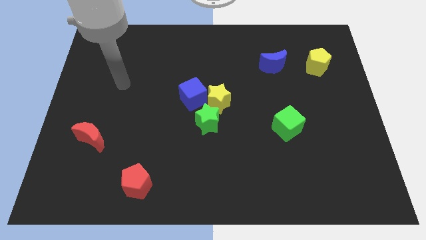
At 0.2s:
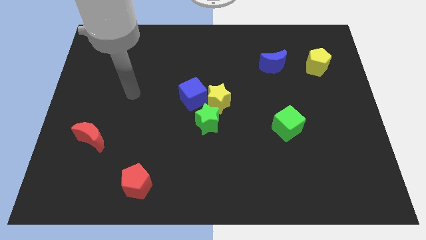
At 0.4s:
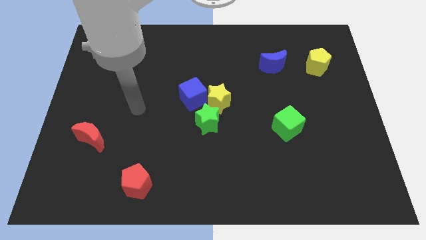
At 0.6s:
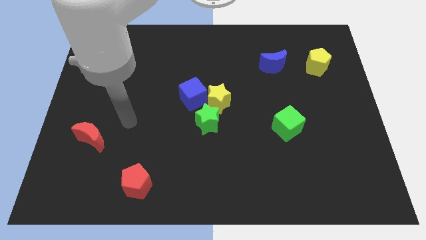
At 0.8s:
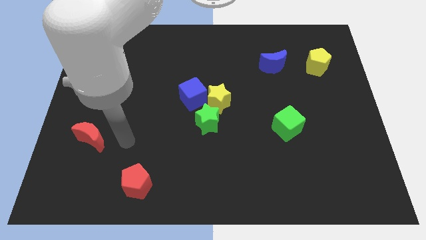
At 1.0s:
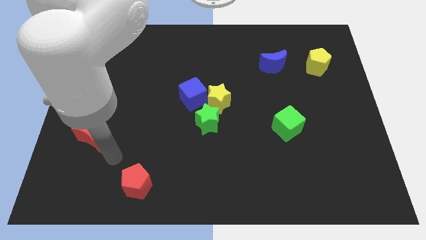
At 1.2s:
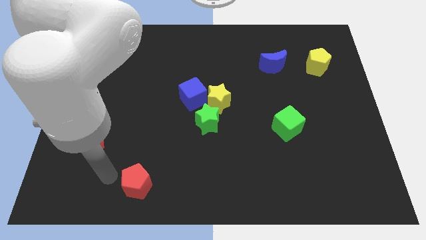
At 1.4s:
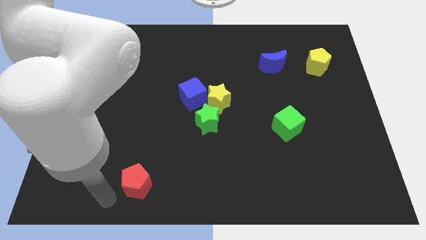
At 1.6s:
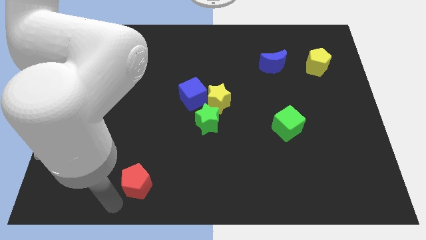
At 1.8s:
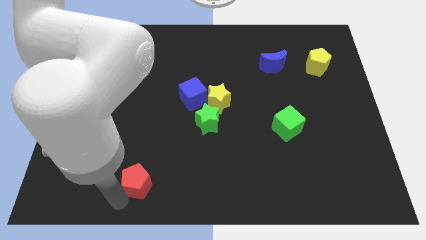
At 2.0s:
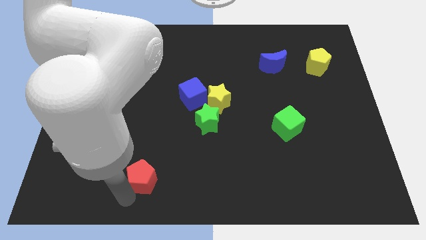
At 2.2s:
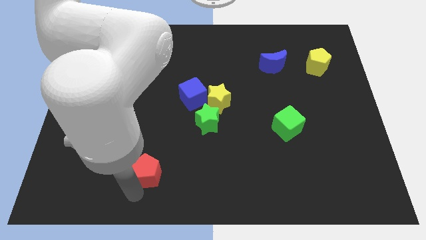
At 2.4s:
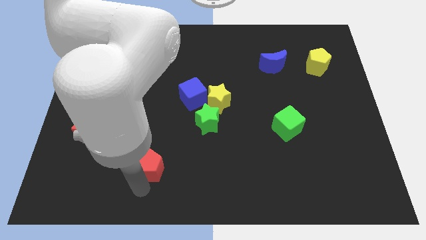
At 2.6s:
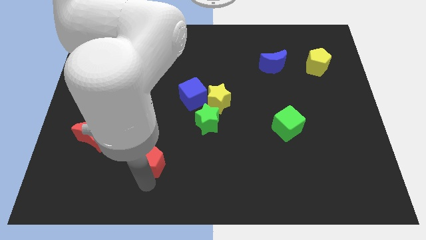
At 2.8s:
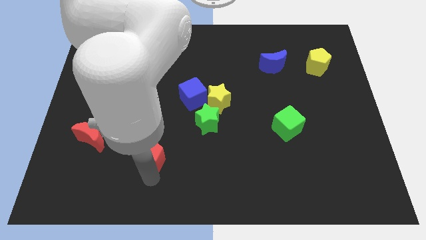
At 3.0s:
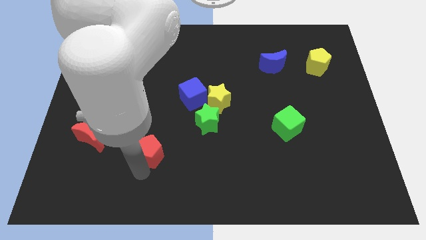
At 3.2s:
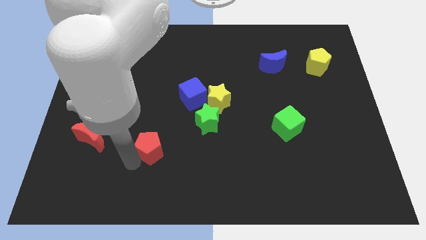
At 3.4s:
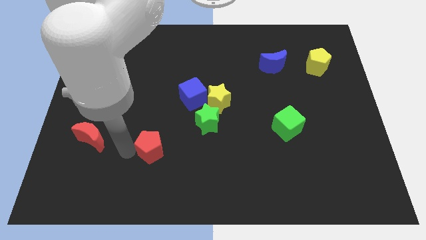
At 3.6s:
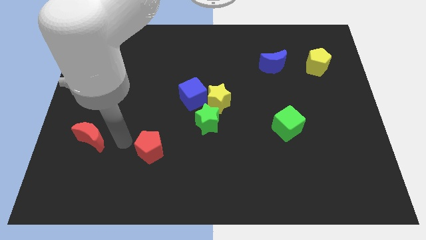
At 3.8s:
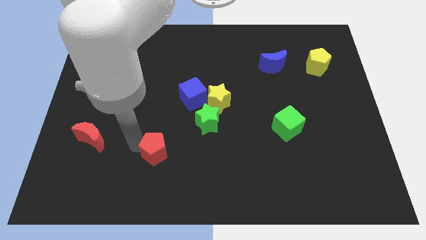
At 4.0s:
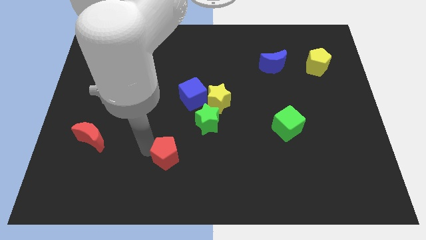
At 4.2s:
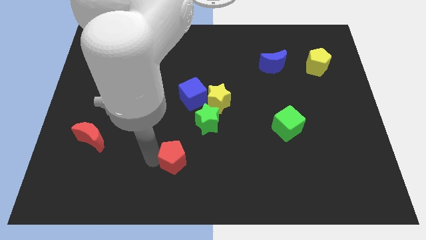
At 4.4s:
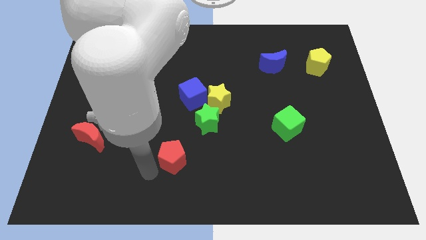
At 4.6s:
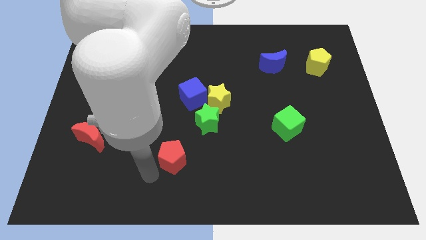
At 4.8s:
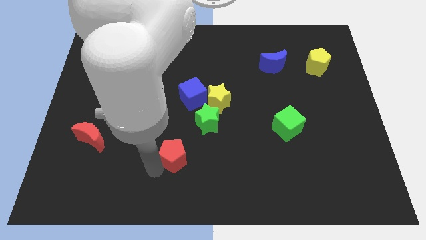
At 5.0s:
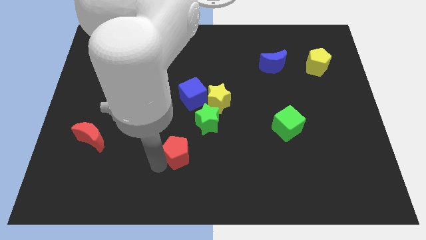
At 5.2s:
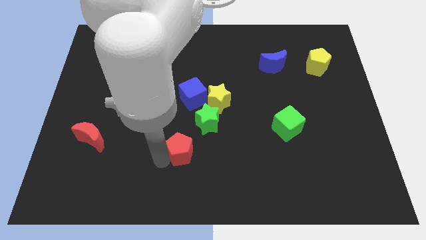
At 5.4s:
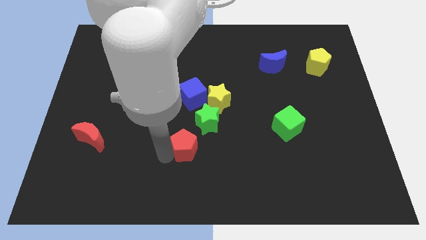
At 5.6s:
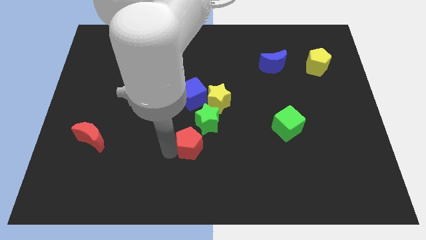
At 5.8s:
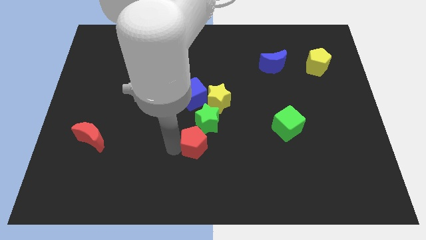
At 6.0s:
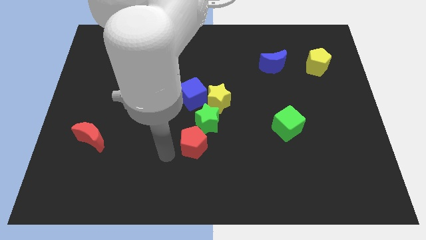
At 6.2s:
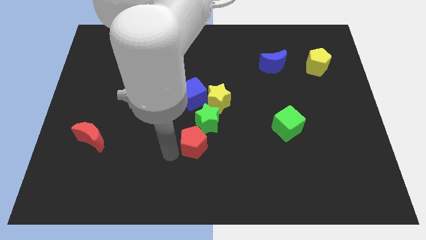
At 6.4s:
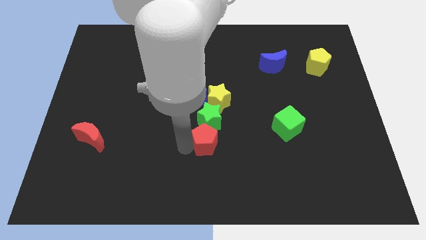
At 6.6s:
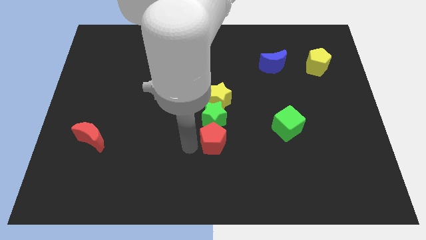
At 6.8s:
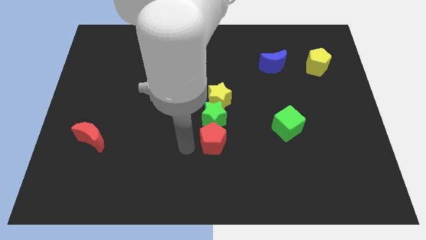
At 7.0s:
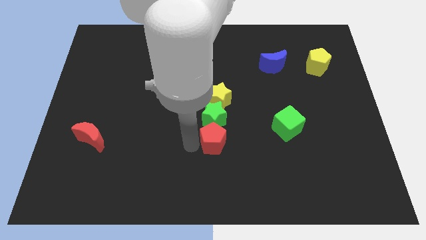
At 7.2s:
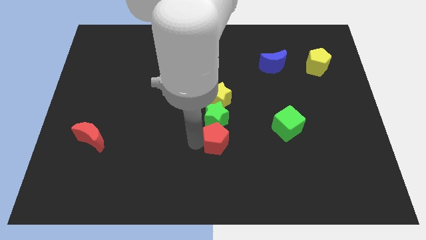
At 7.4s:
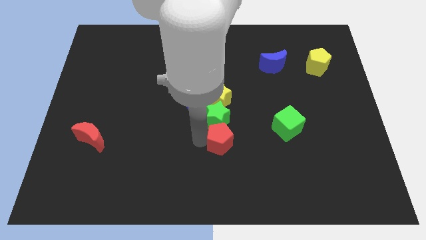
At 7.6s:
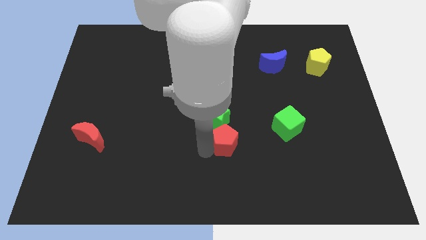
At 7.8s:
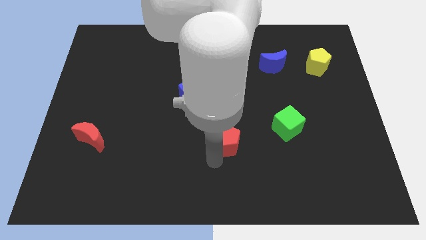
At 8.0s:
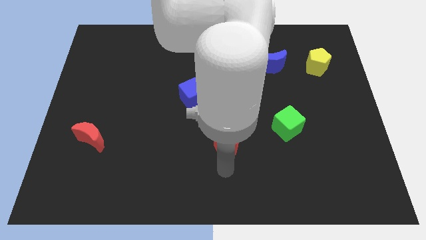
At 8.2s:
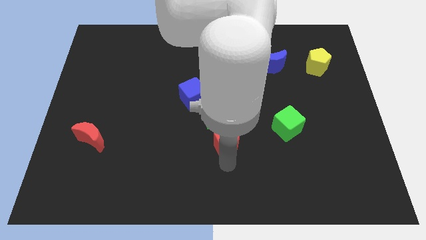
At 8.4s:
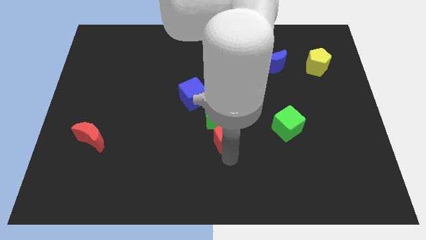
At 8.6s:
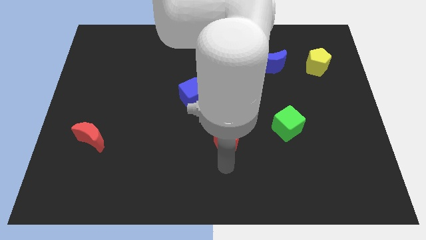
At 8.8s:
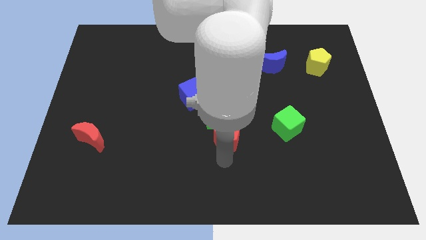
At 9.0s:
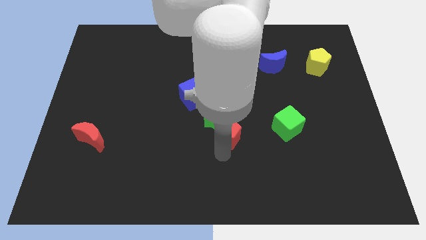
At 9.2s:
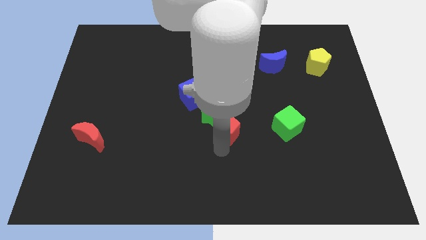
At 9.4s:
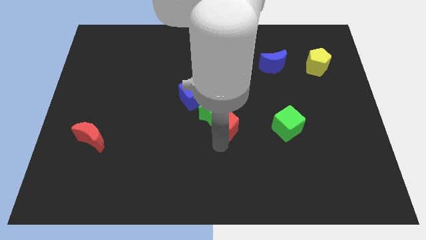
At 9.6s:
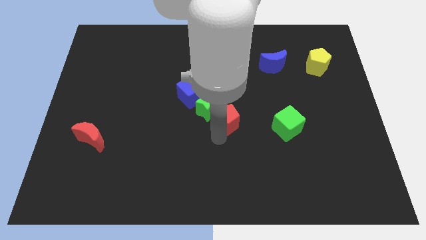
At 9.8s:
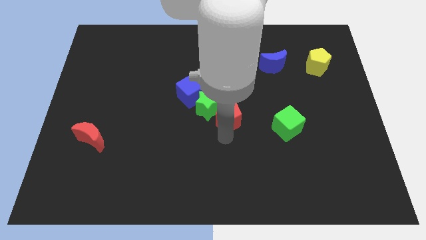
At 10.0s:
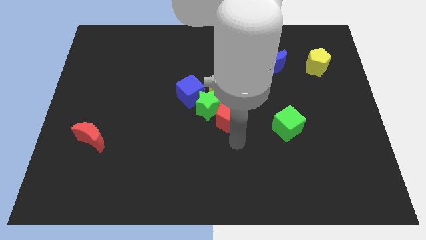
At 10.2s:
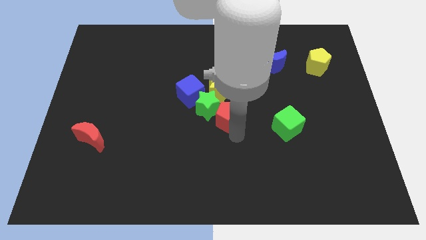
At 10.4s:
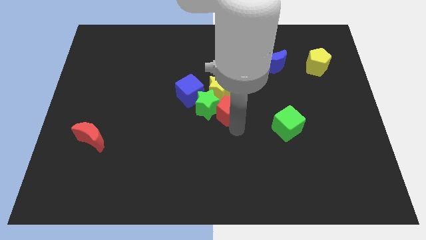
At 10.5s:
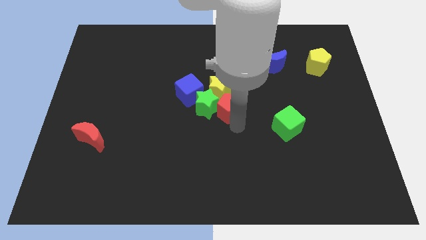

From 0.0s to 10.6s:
push the red pentagon next to the yellow star

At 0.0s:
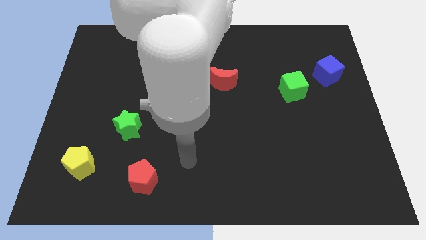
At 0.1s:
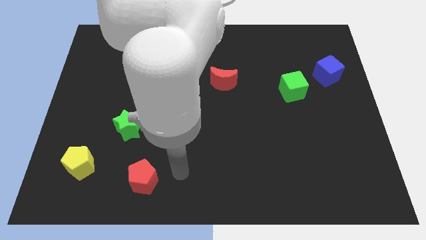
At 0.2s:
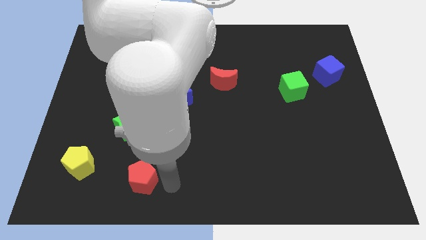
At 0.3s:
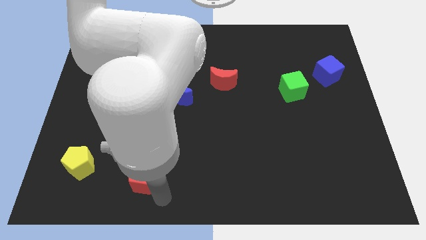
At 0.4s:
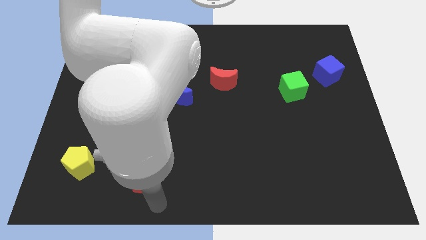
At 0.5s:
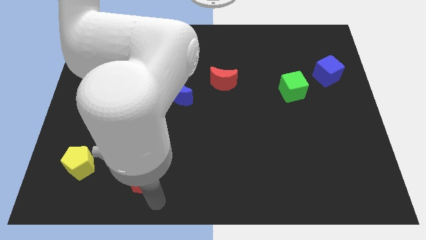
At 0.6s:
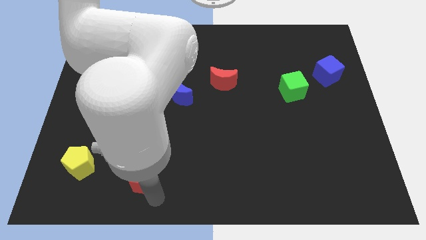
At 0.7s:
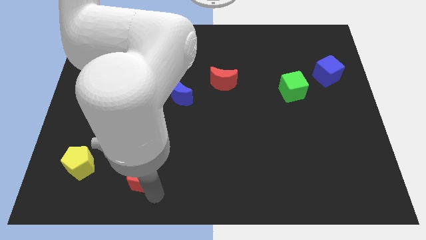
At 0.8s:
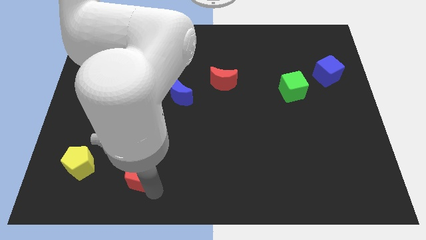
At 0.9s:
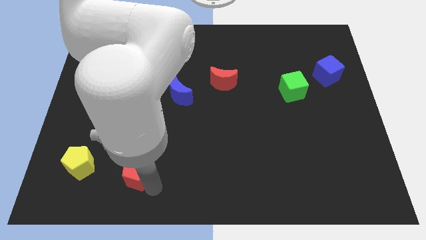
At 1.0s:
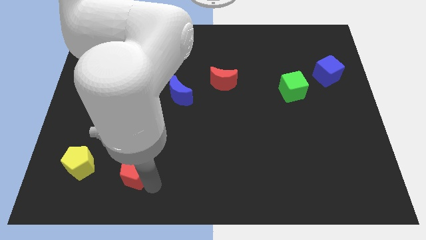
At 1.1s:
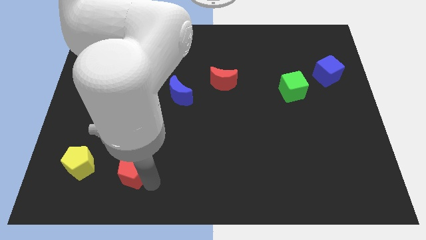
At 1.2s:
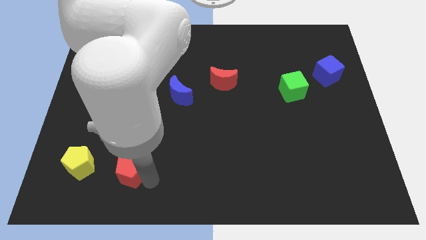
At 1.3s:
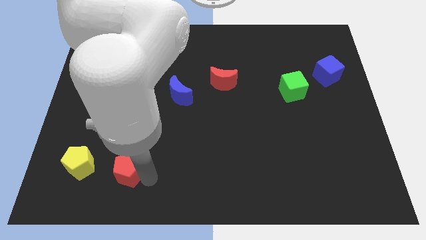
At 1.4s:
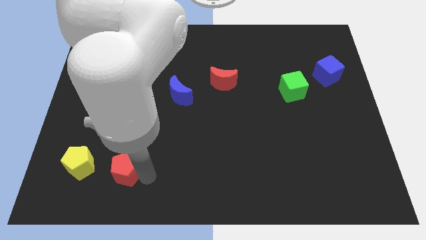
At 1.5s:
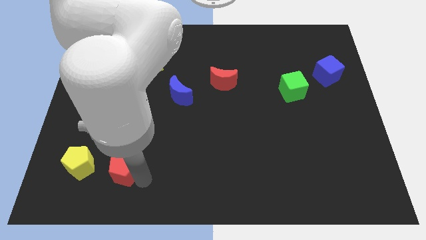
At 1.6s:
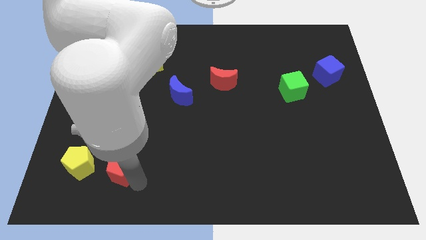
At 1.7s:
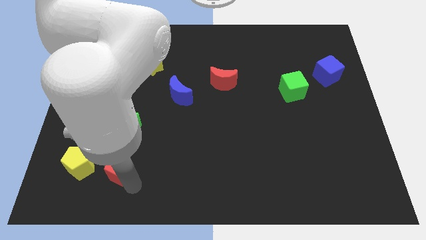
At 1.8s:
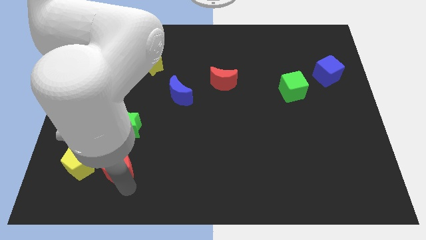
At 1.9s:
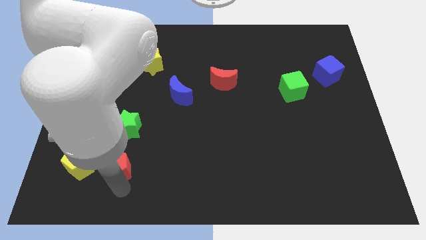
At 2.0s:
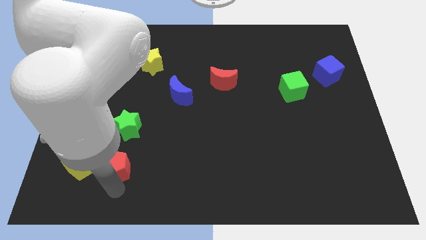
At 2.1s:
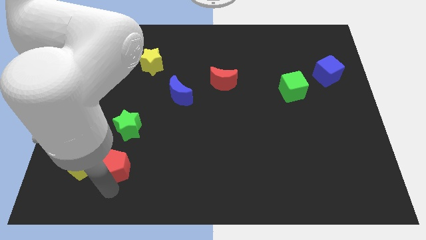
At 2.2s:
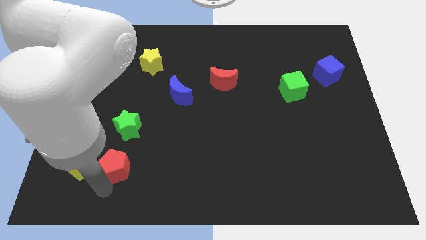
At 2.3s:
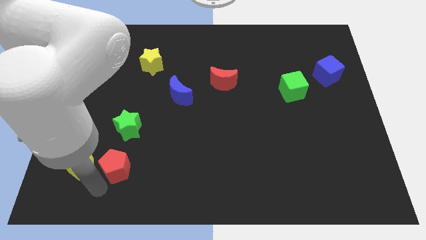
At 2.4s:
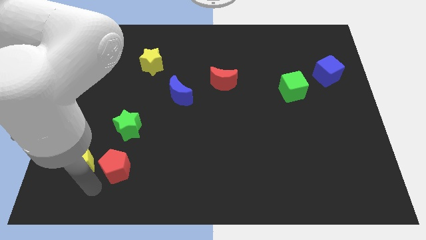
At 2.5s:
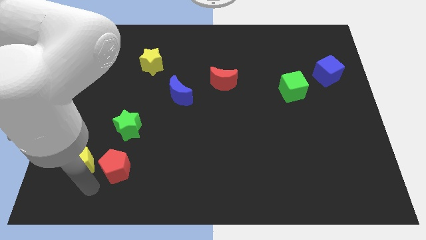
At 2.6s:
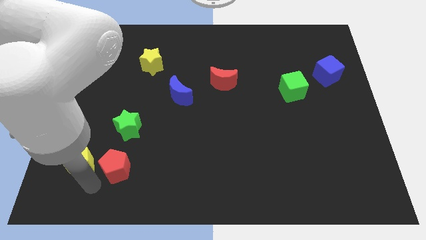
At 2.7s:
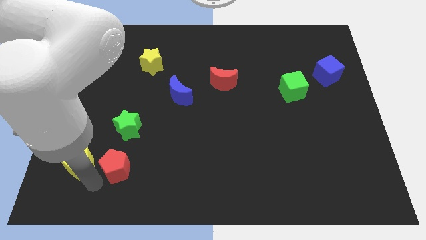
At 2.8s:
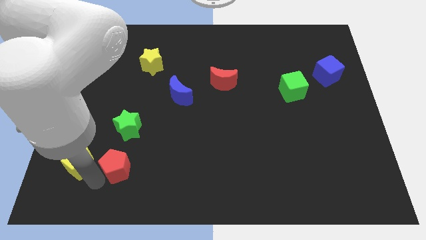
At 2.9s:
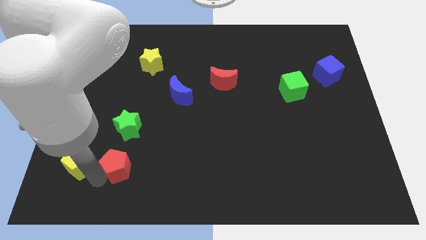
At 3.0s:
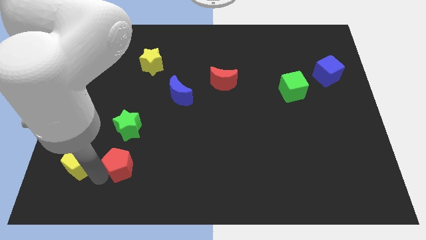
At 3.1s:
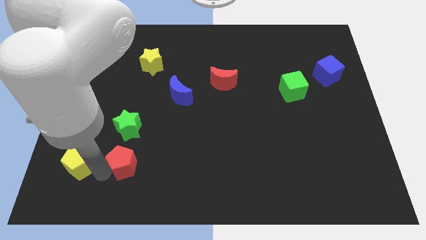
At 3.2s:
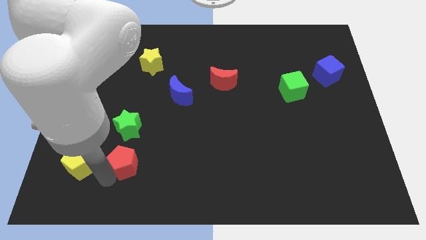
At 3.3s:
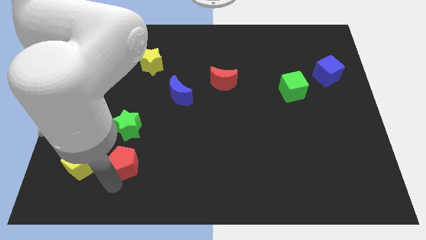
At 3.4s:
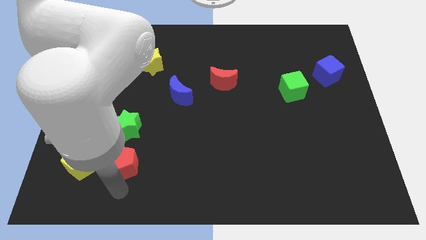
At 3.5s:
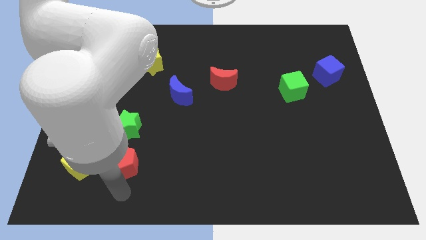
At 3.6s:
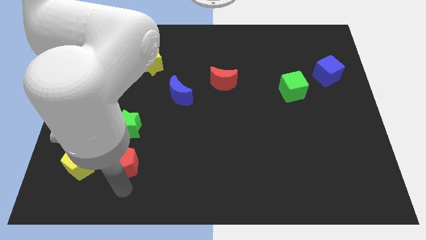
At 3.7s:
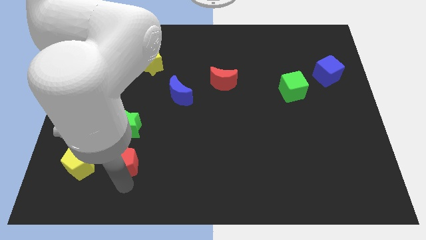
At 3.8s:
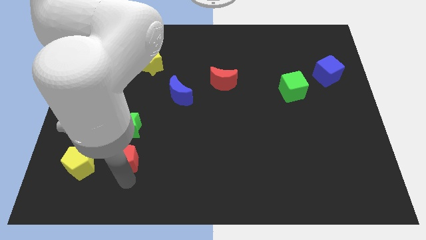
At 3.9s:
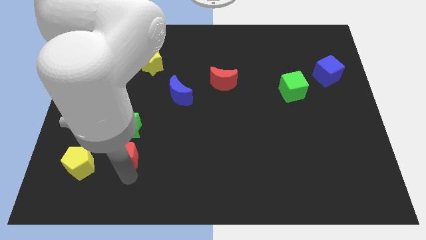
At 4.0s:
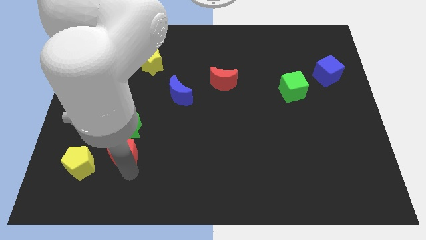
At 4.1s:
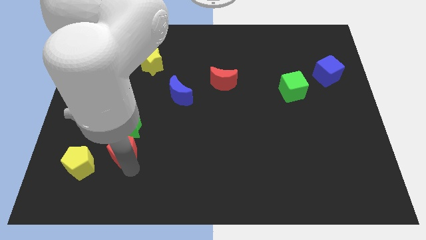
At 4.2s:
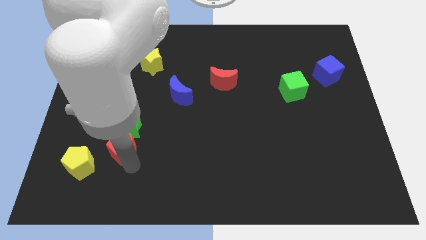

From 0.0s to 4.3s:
push the red pentagon to the green star
